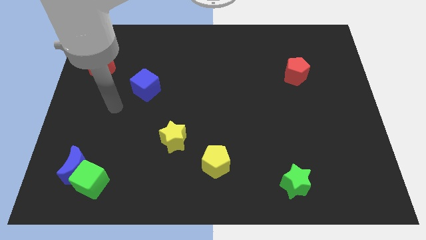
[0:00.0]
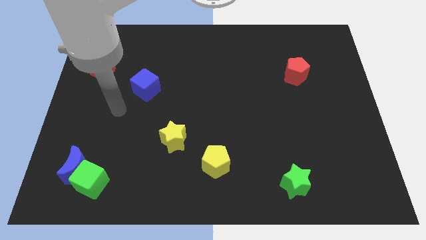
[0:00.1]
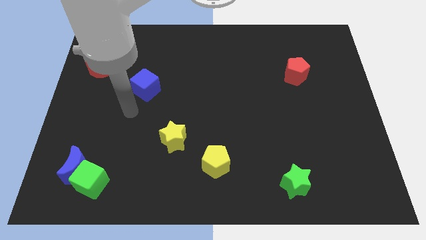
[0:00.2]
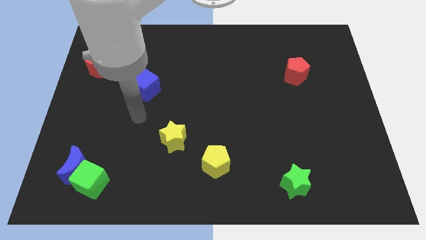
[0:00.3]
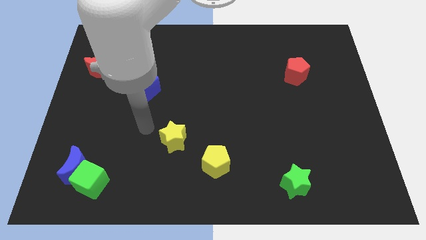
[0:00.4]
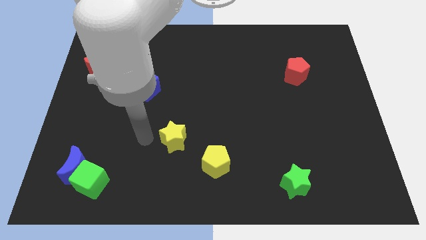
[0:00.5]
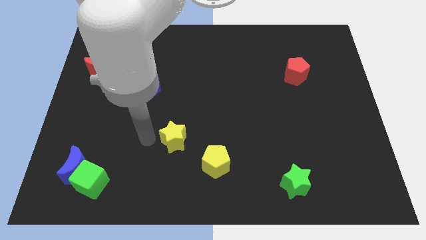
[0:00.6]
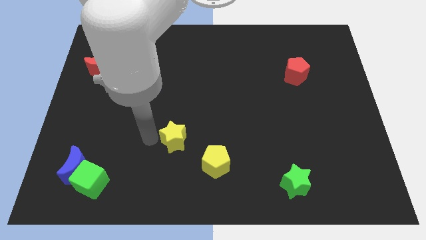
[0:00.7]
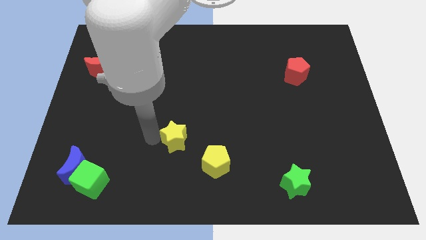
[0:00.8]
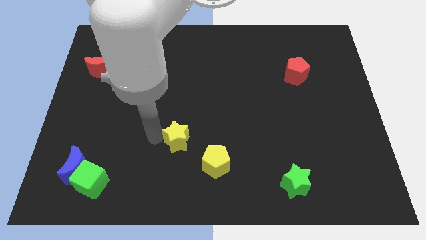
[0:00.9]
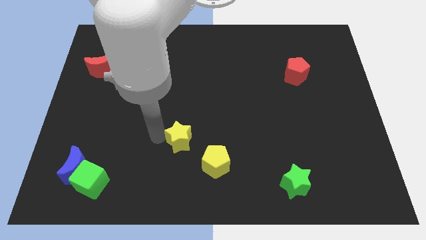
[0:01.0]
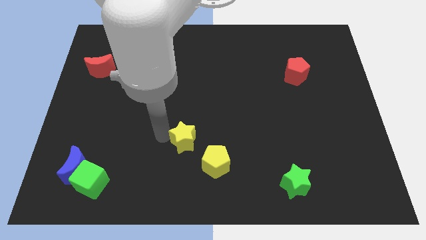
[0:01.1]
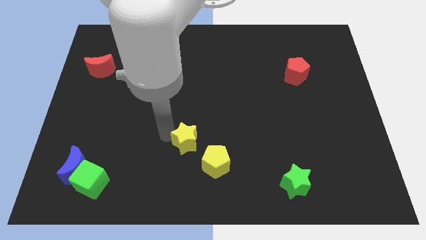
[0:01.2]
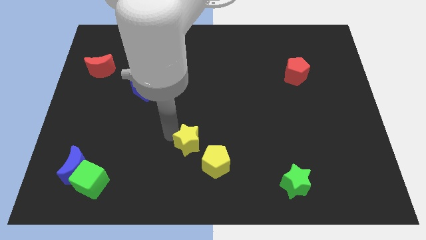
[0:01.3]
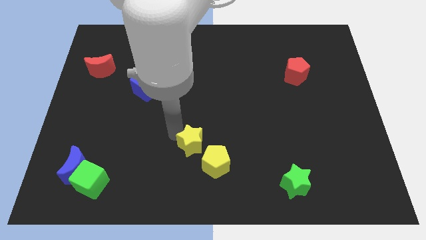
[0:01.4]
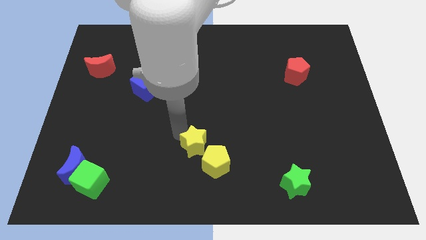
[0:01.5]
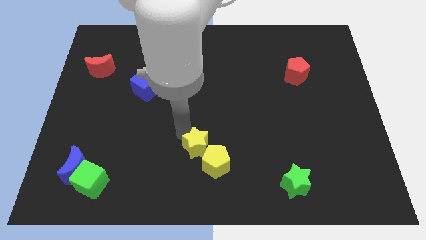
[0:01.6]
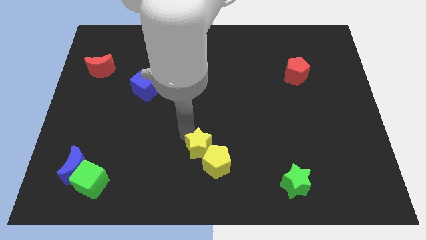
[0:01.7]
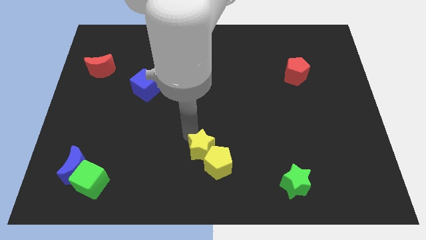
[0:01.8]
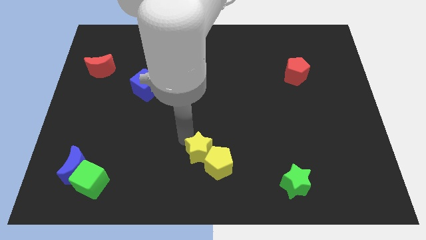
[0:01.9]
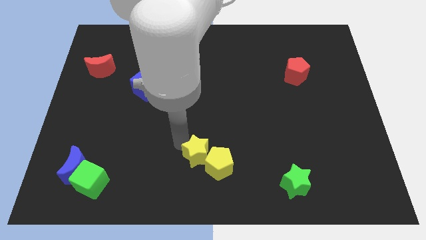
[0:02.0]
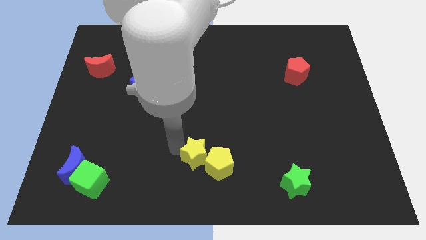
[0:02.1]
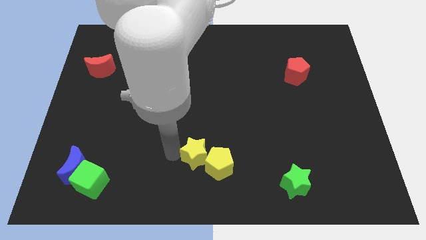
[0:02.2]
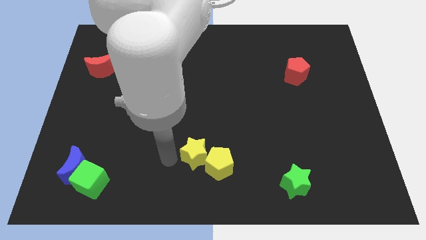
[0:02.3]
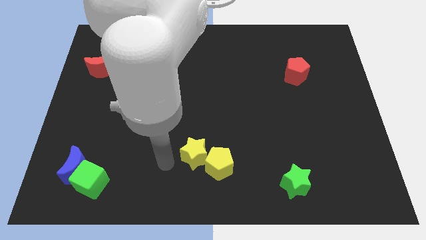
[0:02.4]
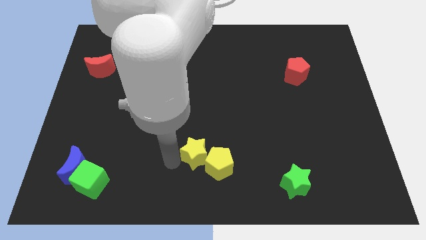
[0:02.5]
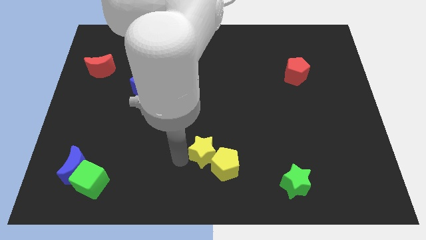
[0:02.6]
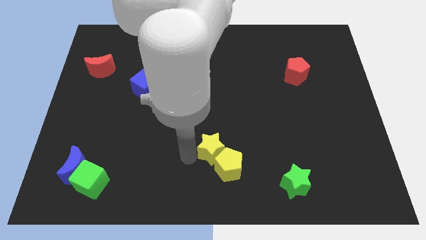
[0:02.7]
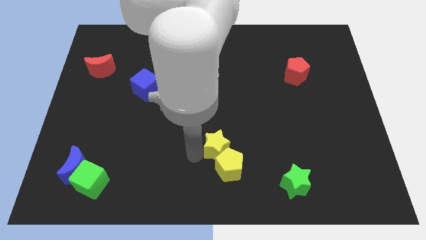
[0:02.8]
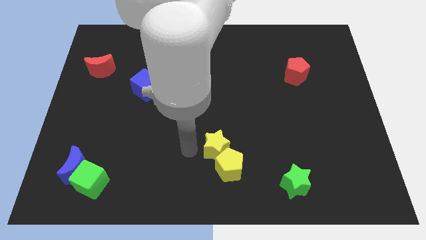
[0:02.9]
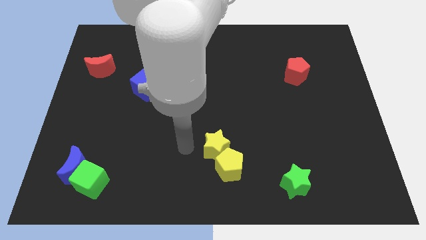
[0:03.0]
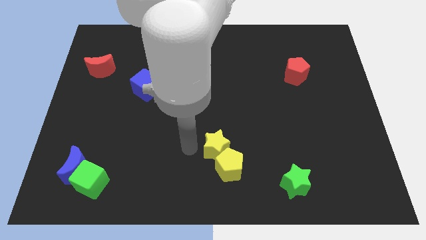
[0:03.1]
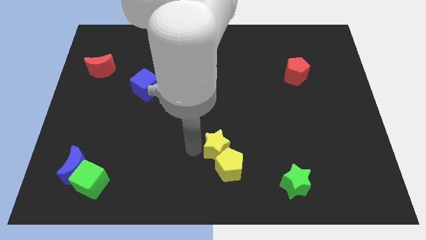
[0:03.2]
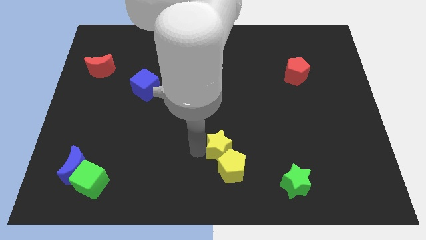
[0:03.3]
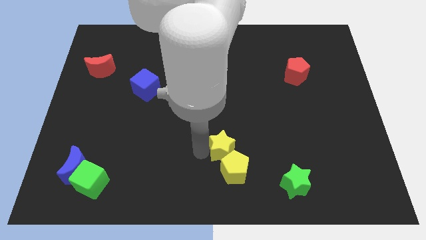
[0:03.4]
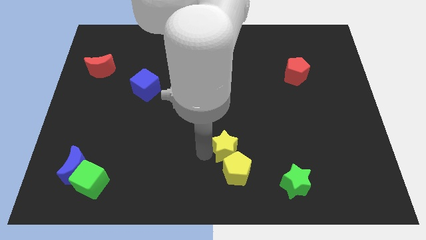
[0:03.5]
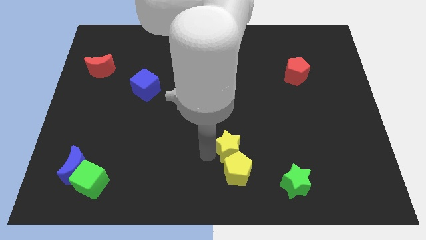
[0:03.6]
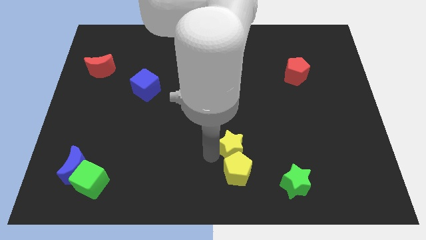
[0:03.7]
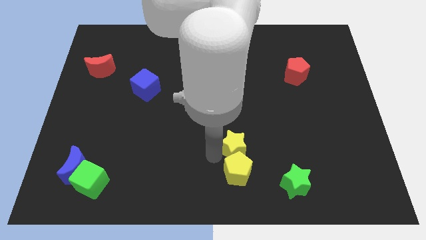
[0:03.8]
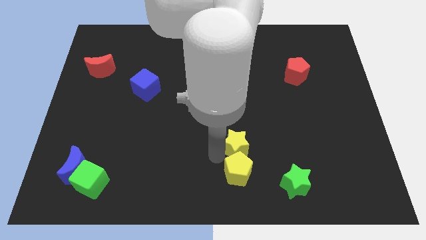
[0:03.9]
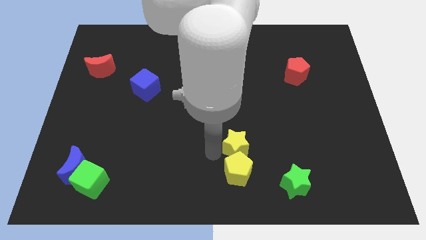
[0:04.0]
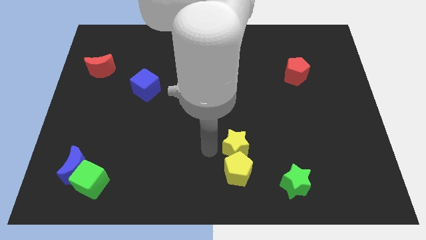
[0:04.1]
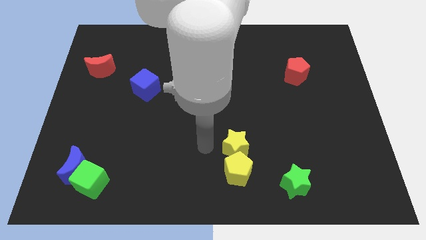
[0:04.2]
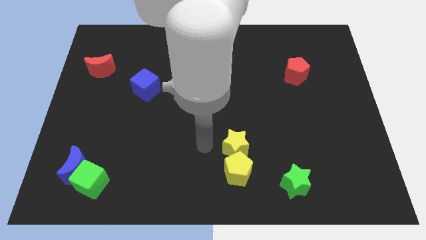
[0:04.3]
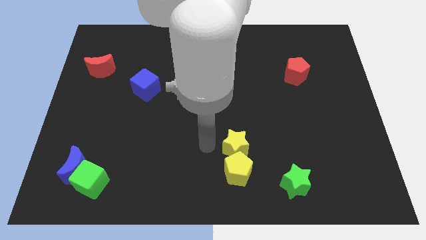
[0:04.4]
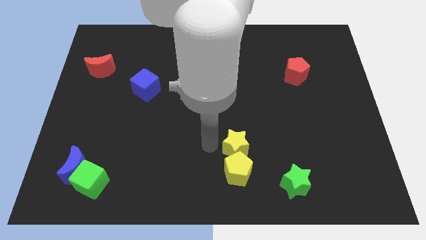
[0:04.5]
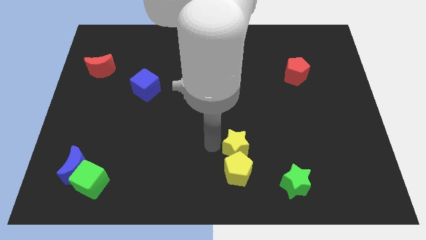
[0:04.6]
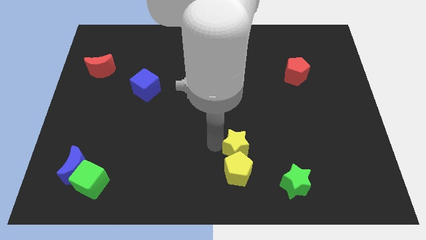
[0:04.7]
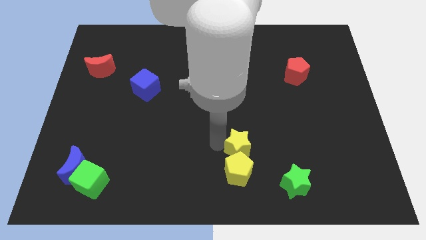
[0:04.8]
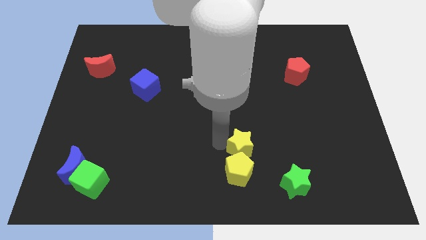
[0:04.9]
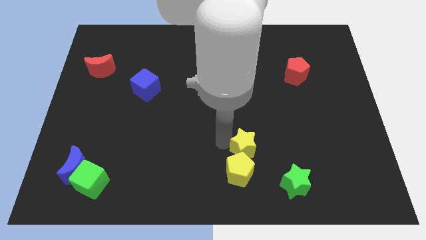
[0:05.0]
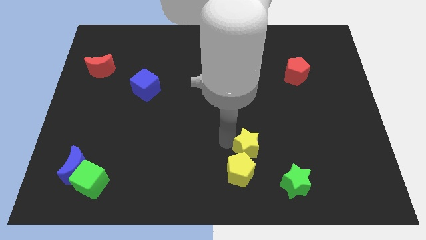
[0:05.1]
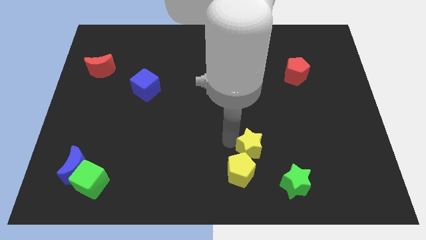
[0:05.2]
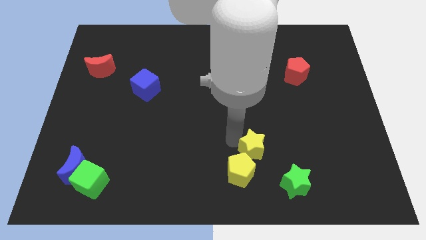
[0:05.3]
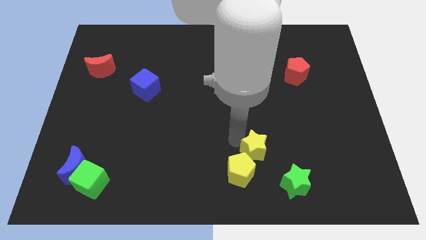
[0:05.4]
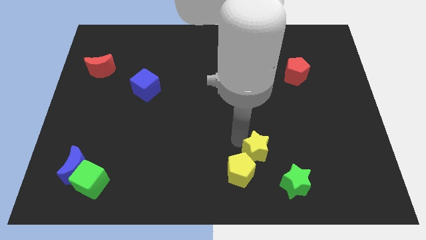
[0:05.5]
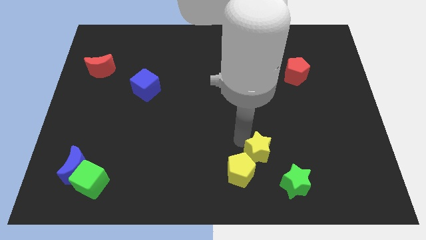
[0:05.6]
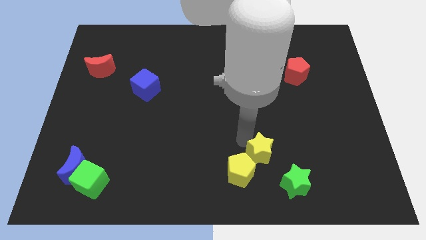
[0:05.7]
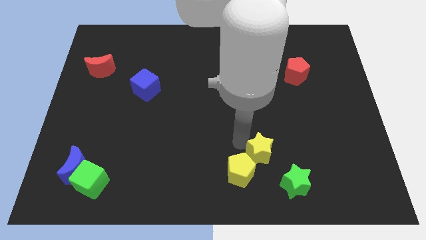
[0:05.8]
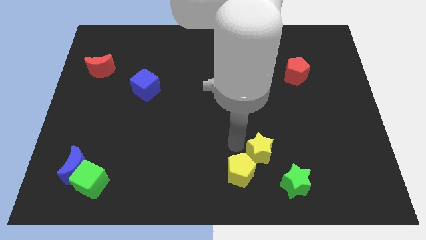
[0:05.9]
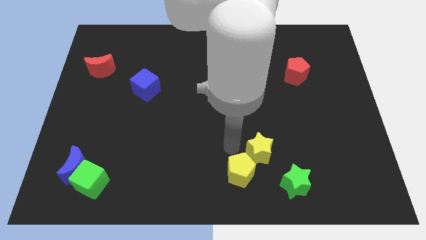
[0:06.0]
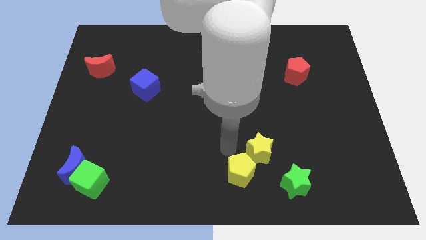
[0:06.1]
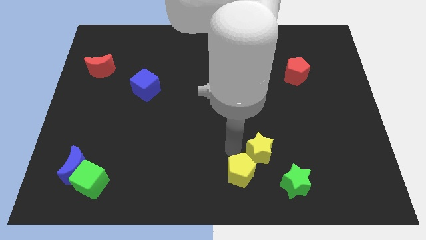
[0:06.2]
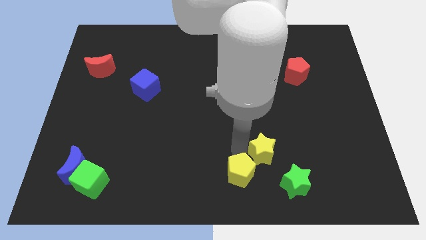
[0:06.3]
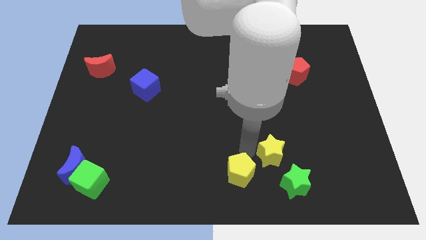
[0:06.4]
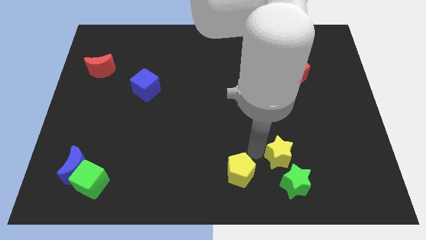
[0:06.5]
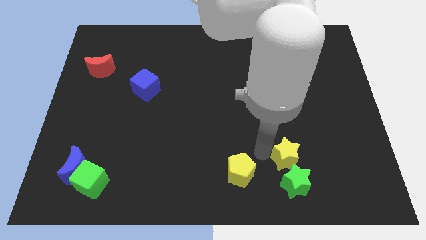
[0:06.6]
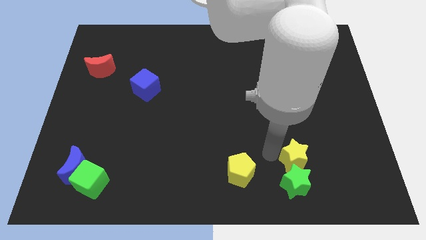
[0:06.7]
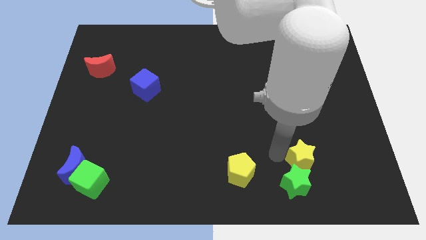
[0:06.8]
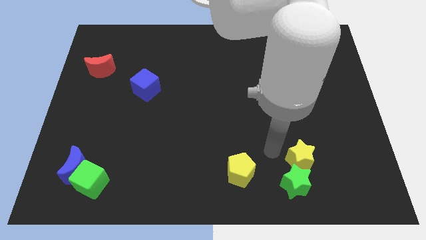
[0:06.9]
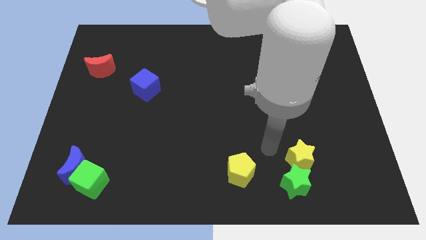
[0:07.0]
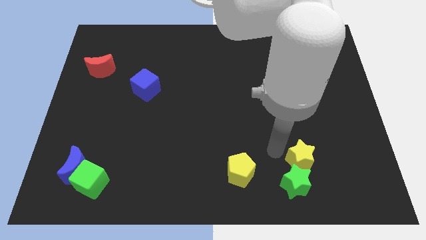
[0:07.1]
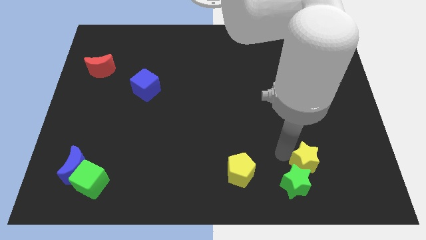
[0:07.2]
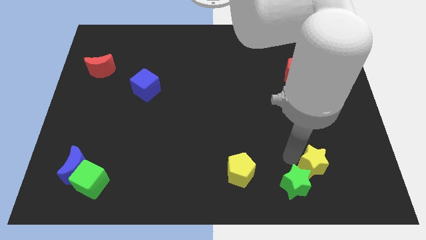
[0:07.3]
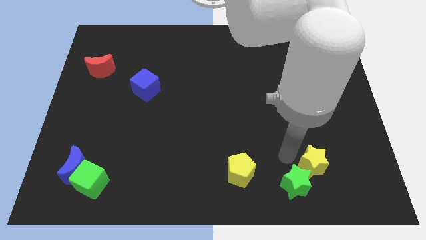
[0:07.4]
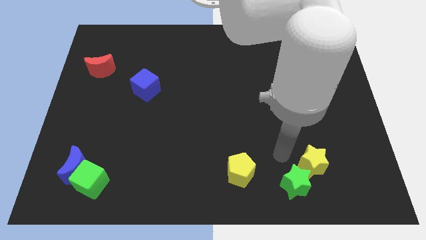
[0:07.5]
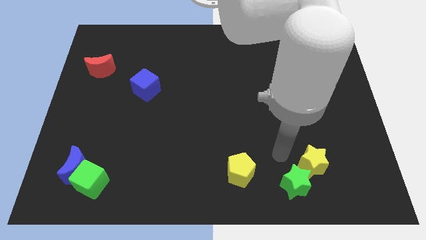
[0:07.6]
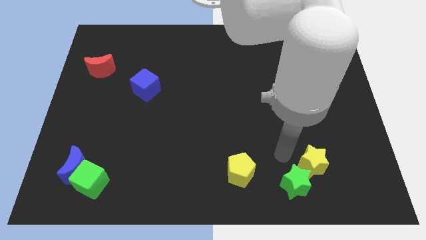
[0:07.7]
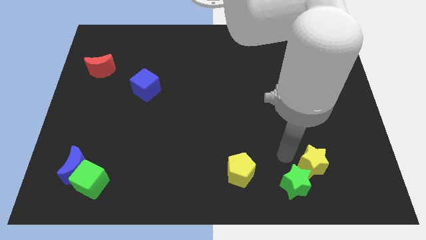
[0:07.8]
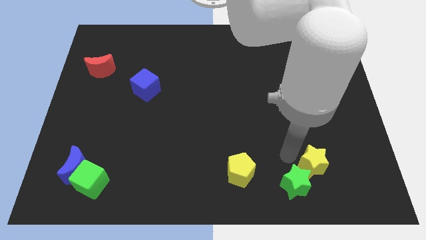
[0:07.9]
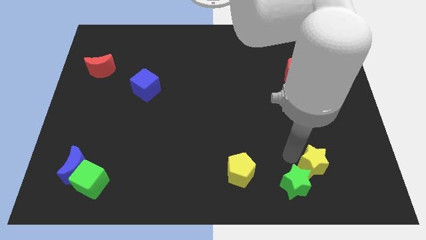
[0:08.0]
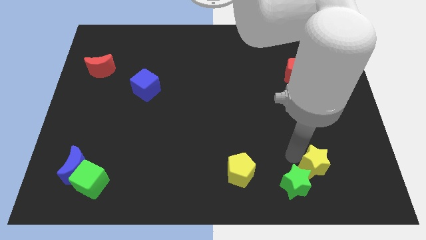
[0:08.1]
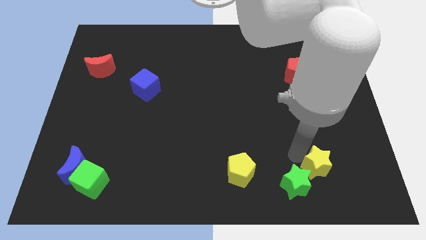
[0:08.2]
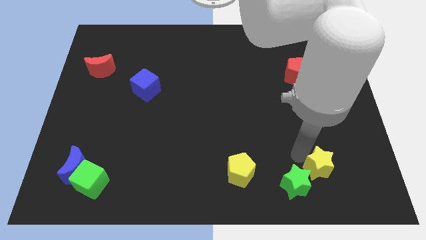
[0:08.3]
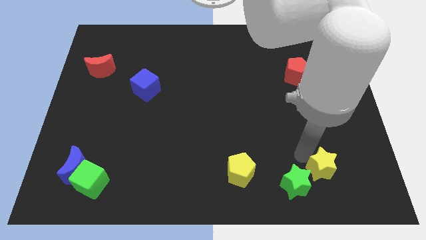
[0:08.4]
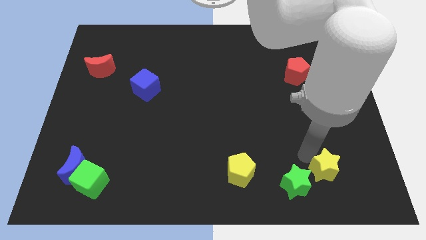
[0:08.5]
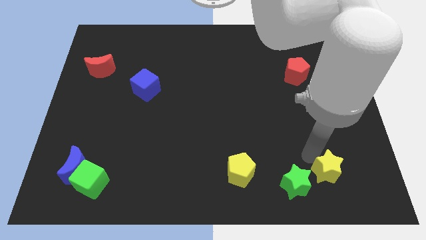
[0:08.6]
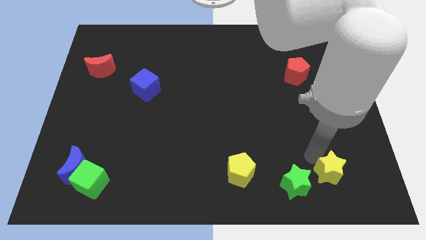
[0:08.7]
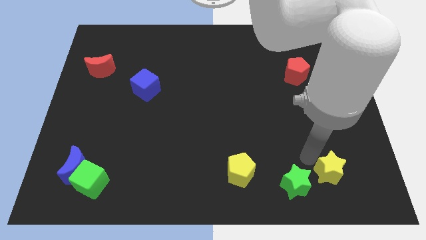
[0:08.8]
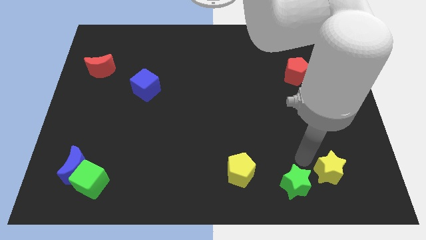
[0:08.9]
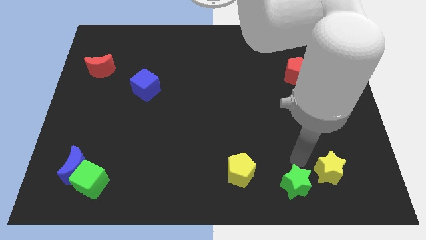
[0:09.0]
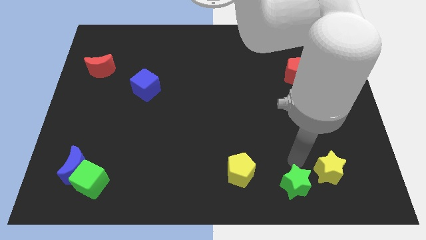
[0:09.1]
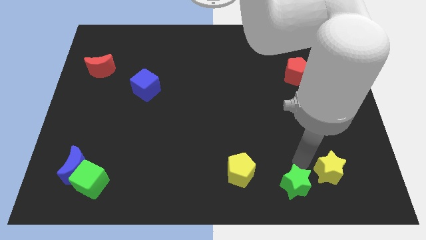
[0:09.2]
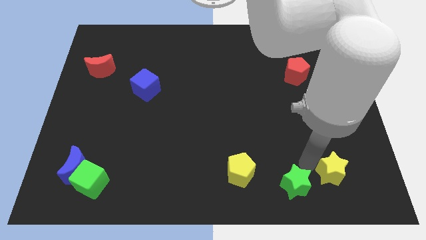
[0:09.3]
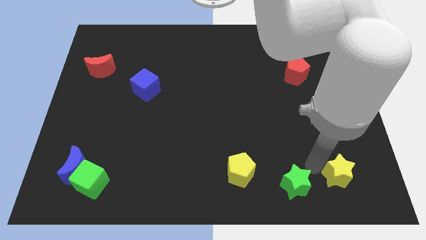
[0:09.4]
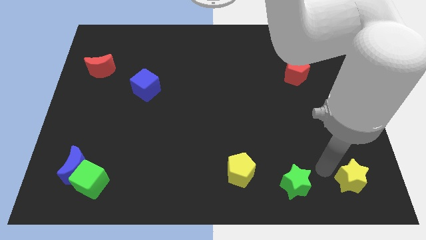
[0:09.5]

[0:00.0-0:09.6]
push the yellow star to the bottom right
